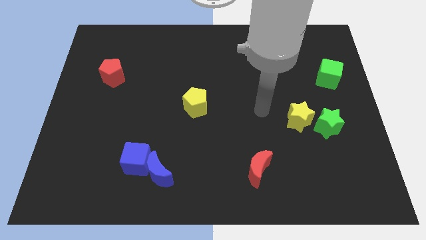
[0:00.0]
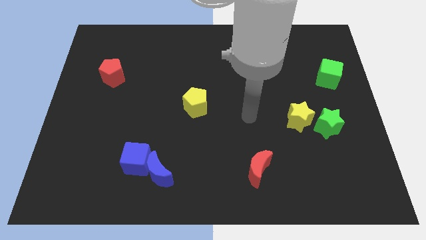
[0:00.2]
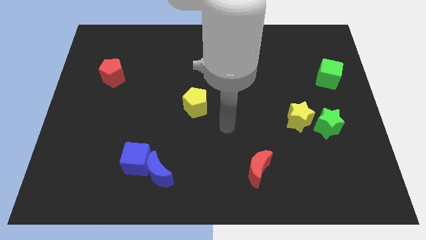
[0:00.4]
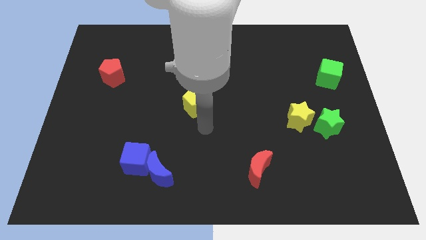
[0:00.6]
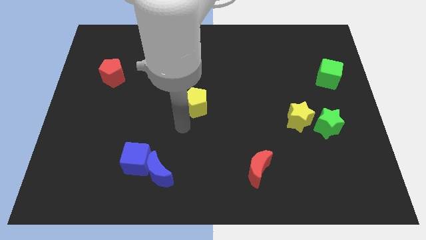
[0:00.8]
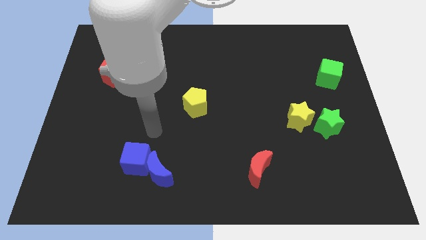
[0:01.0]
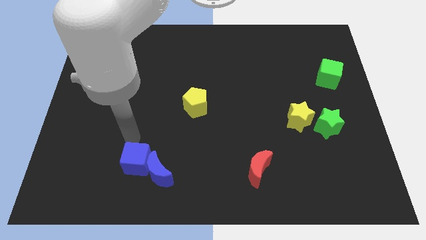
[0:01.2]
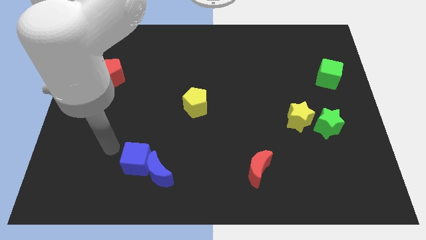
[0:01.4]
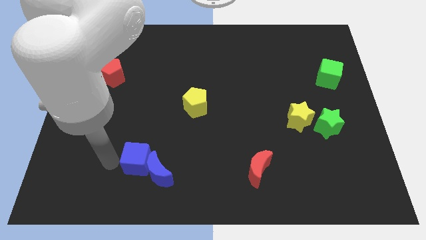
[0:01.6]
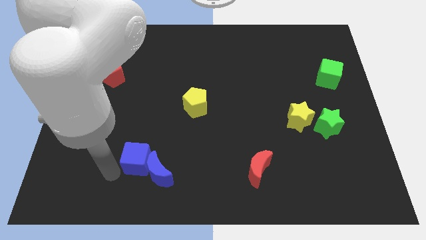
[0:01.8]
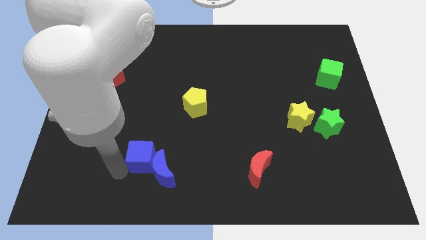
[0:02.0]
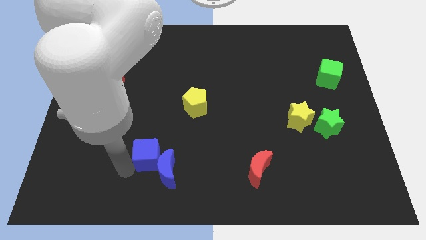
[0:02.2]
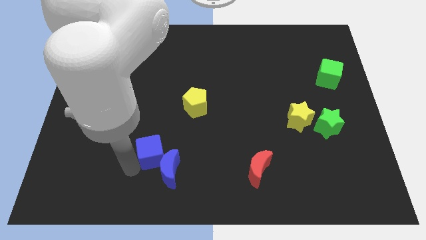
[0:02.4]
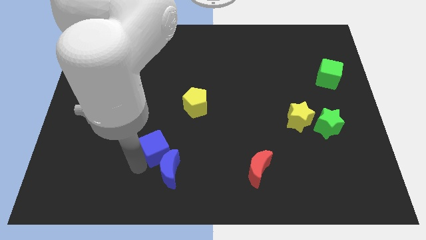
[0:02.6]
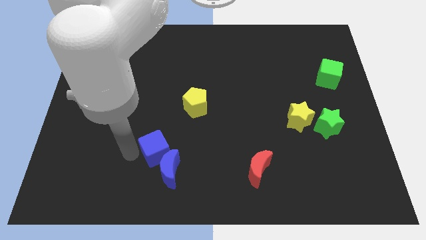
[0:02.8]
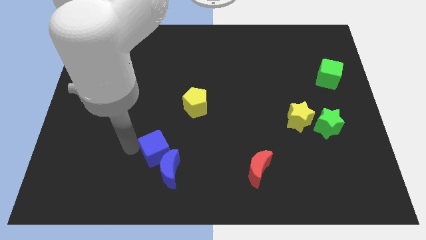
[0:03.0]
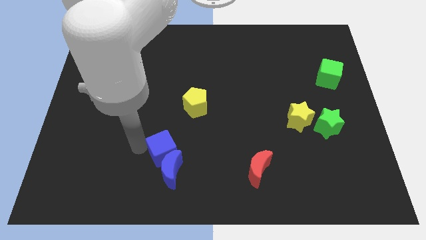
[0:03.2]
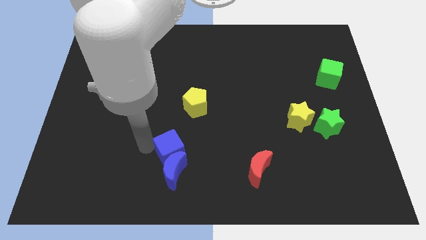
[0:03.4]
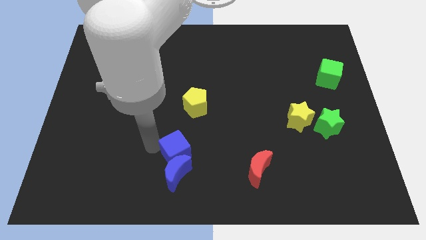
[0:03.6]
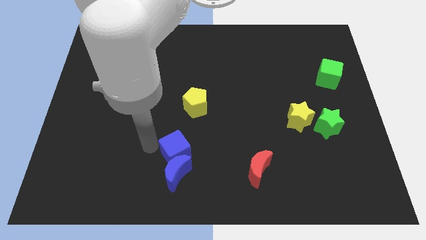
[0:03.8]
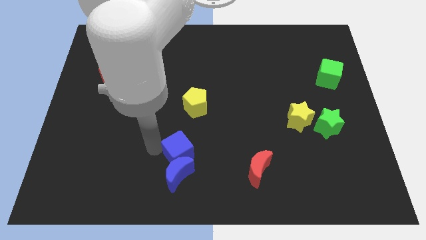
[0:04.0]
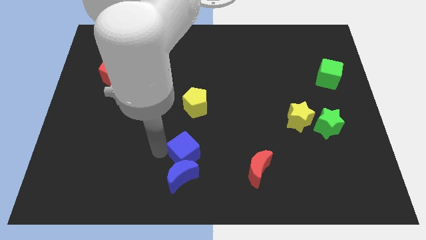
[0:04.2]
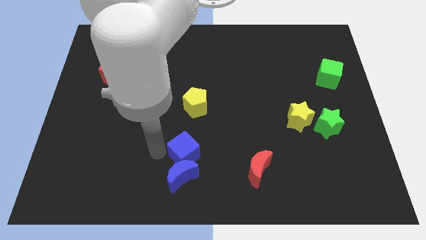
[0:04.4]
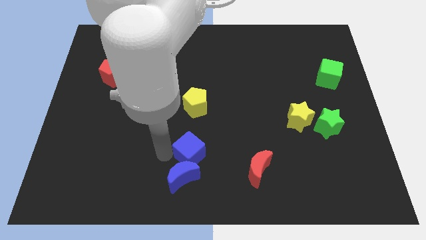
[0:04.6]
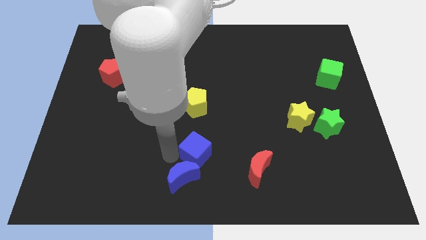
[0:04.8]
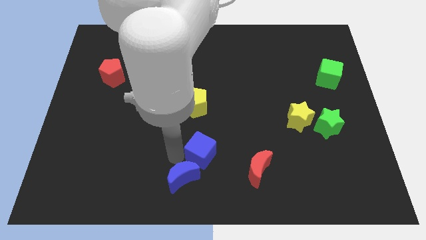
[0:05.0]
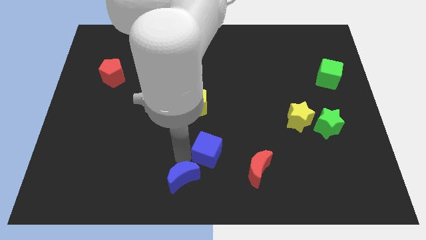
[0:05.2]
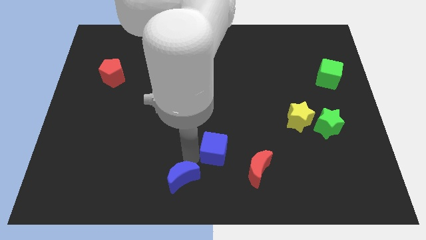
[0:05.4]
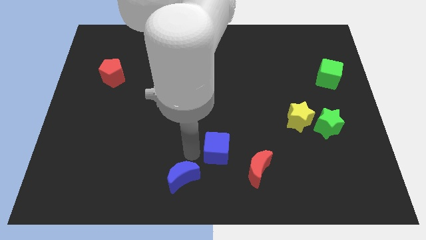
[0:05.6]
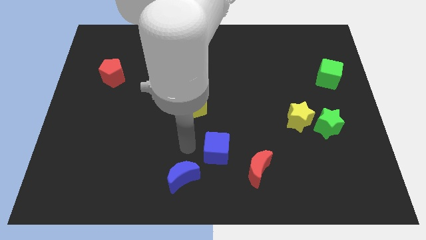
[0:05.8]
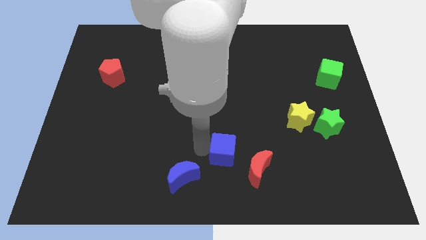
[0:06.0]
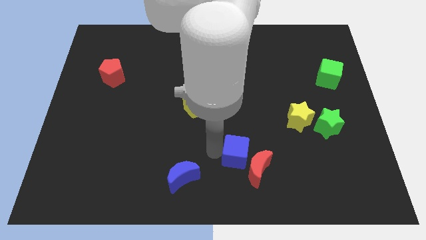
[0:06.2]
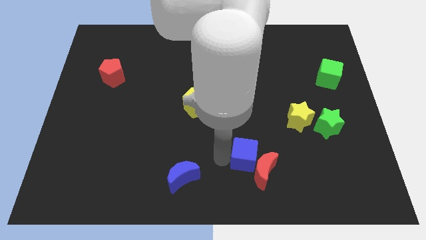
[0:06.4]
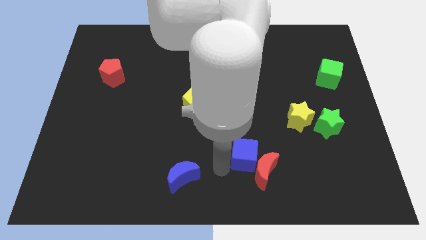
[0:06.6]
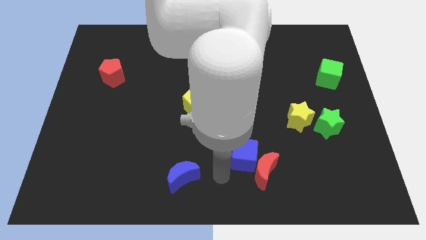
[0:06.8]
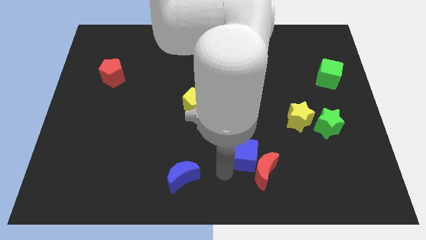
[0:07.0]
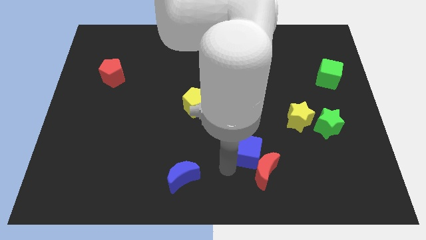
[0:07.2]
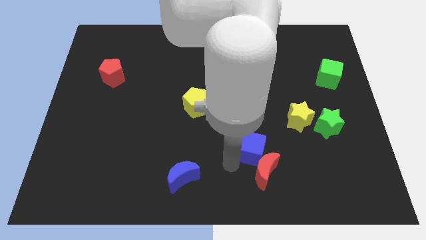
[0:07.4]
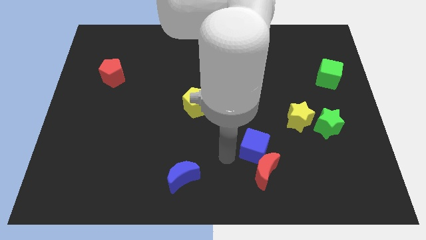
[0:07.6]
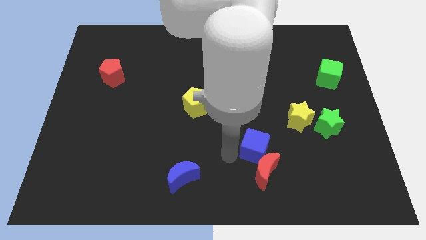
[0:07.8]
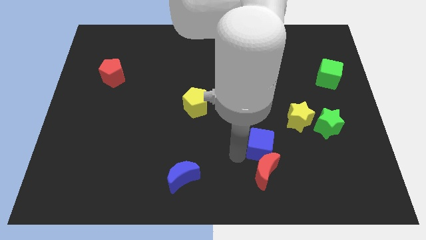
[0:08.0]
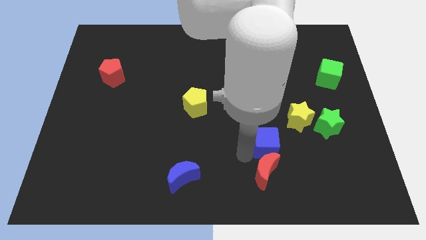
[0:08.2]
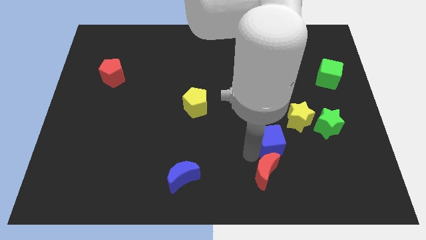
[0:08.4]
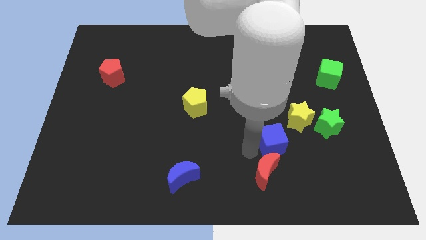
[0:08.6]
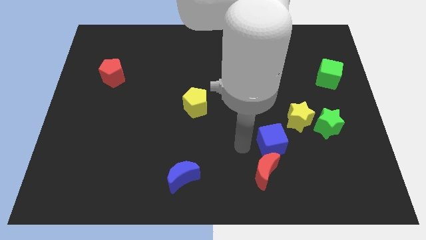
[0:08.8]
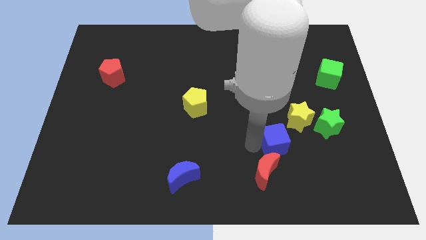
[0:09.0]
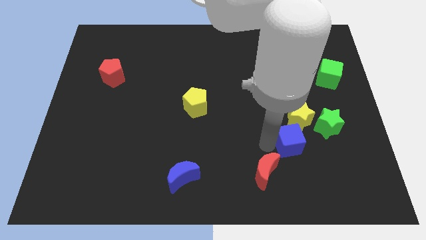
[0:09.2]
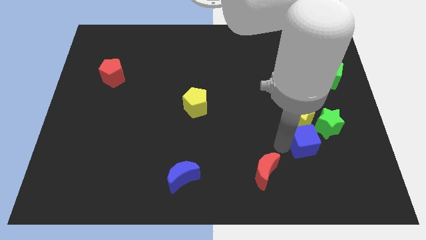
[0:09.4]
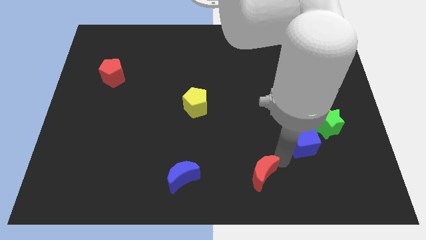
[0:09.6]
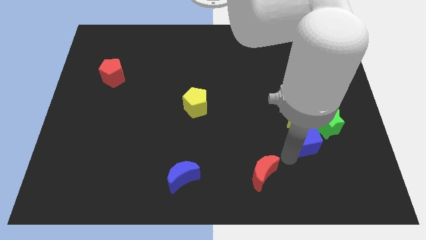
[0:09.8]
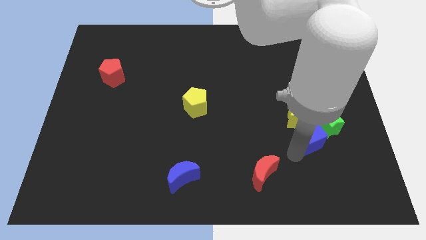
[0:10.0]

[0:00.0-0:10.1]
slide the blue cube close to the green star

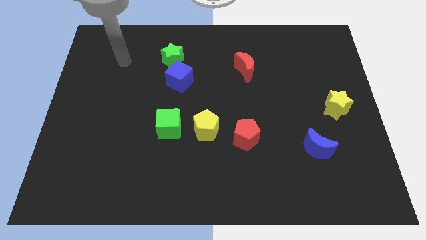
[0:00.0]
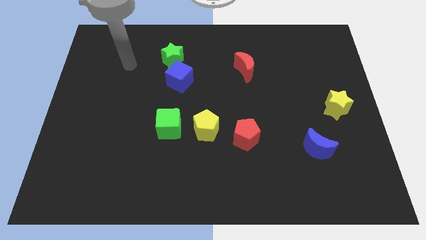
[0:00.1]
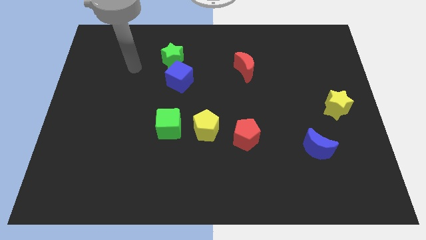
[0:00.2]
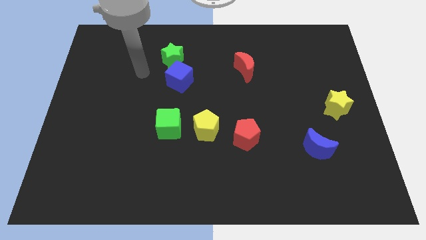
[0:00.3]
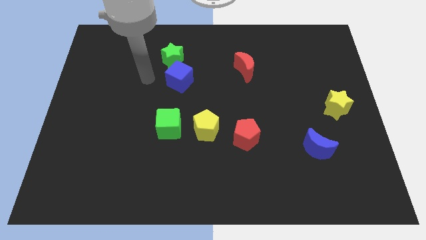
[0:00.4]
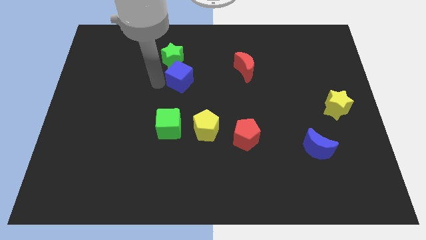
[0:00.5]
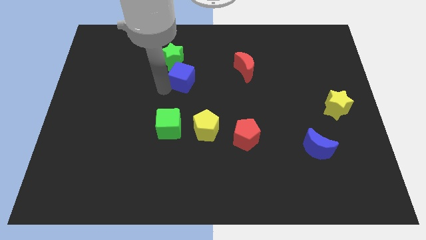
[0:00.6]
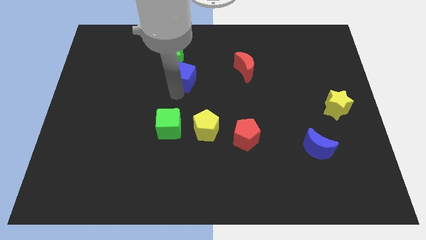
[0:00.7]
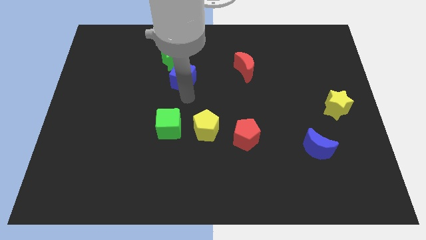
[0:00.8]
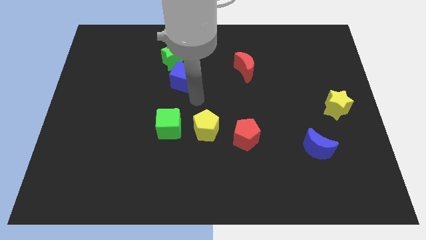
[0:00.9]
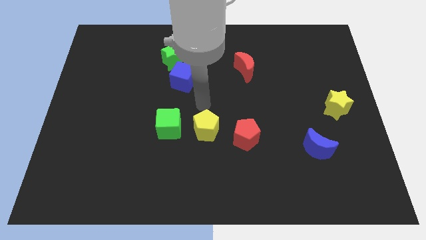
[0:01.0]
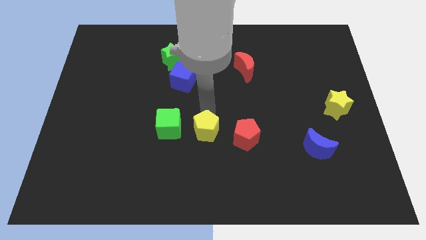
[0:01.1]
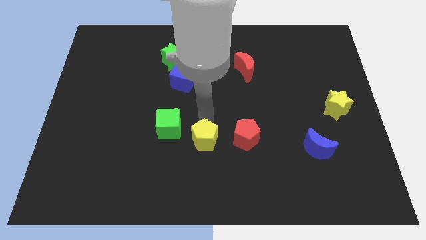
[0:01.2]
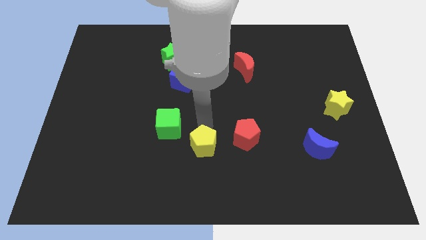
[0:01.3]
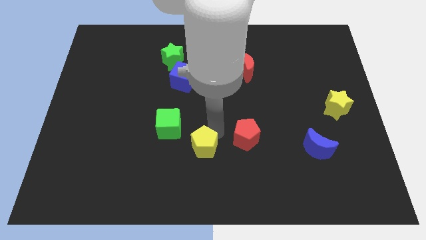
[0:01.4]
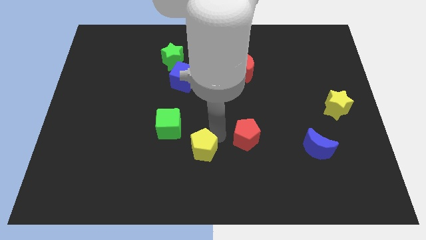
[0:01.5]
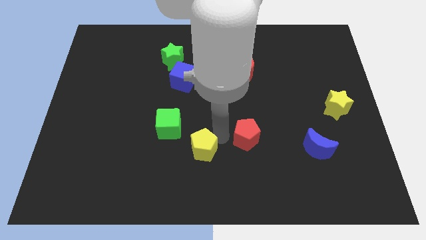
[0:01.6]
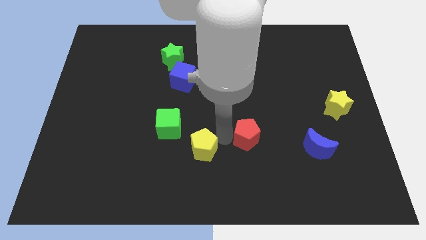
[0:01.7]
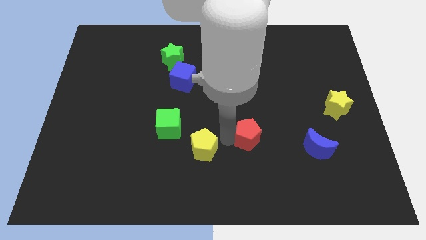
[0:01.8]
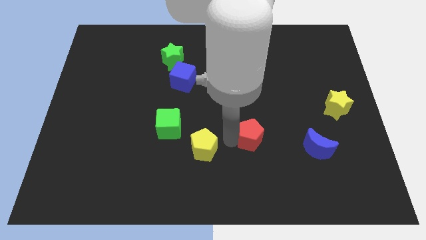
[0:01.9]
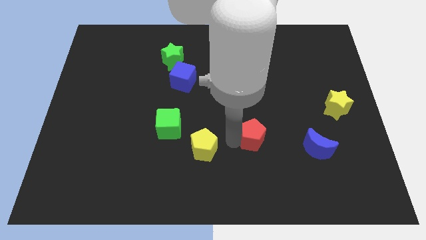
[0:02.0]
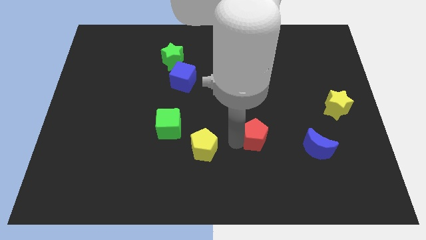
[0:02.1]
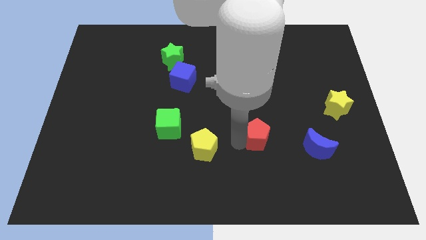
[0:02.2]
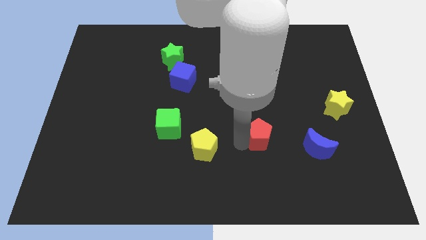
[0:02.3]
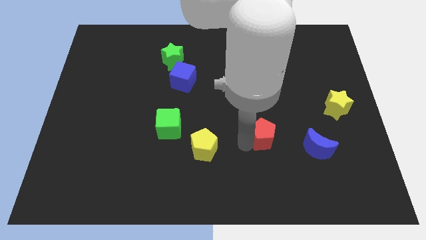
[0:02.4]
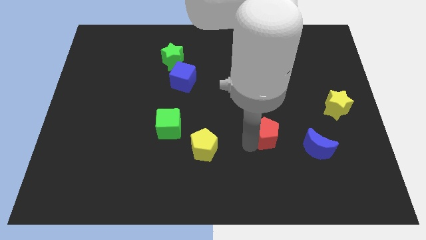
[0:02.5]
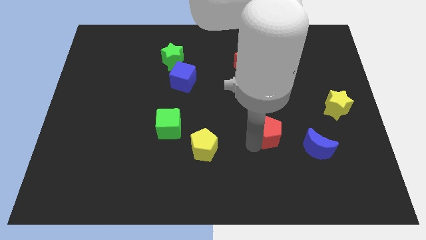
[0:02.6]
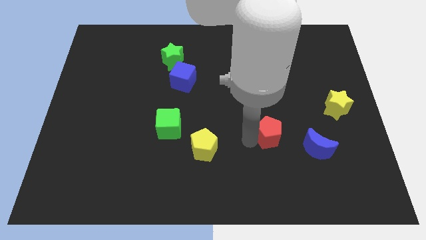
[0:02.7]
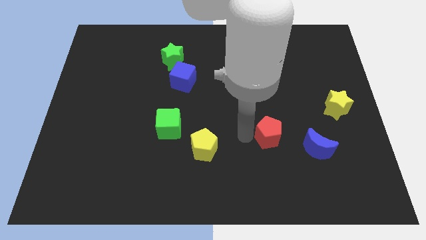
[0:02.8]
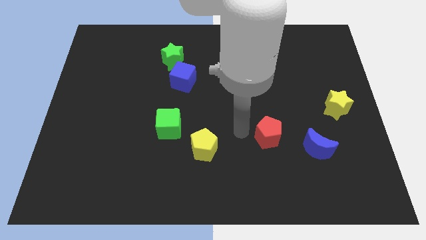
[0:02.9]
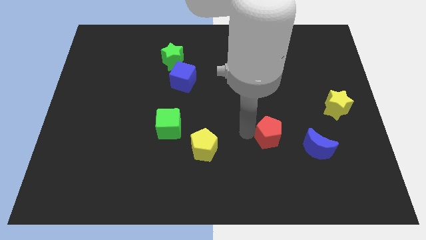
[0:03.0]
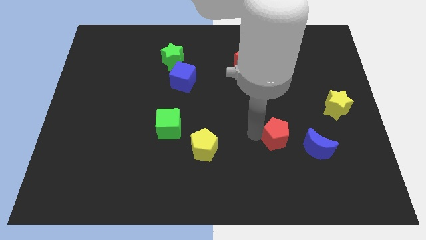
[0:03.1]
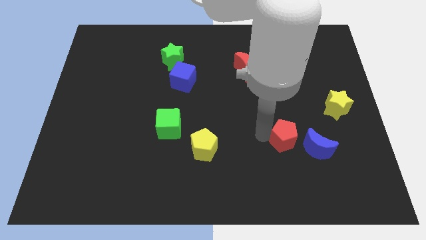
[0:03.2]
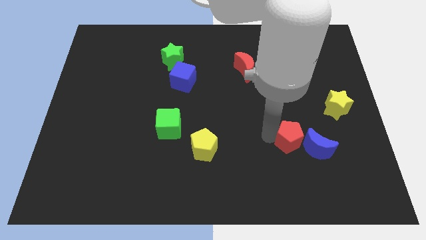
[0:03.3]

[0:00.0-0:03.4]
move the red pentagon to the blue moon
